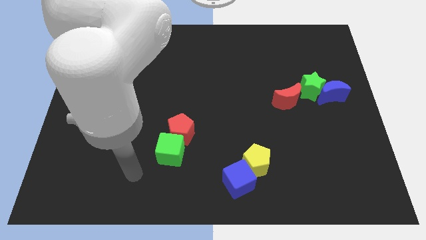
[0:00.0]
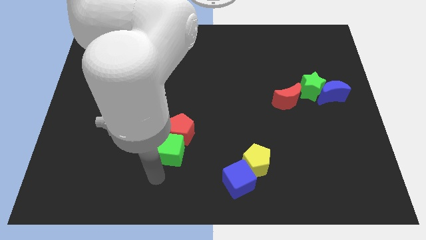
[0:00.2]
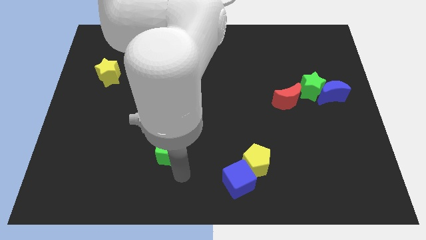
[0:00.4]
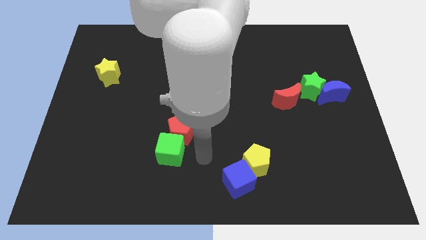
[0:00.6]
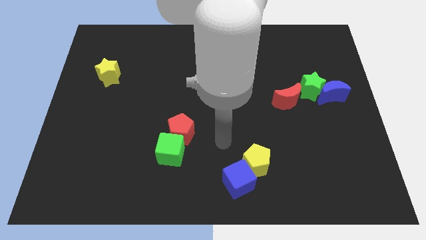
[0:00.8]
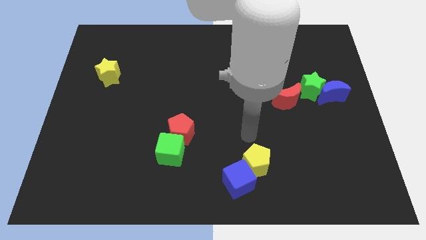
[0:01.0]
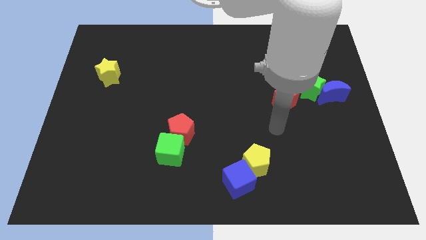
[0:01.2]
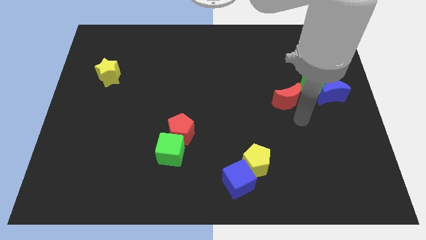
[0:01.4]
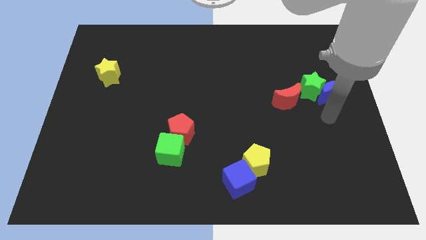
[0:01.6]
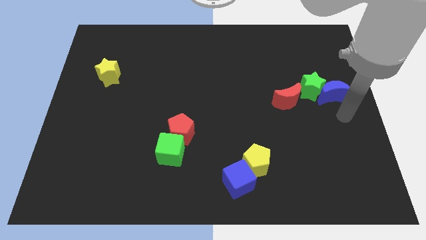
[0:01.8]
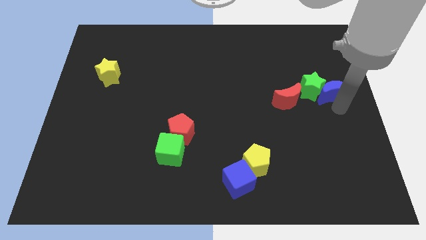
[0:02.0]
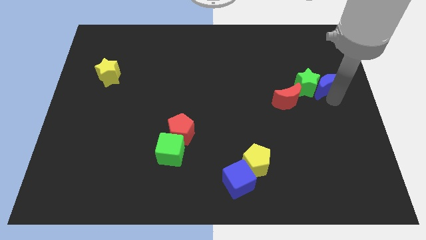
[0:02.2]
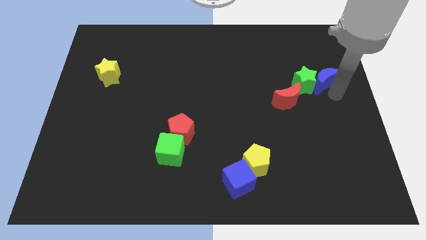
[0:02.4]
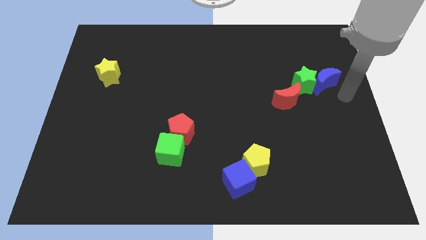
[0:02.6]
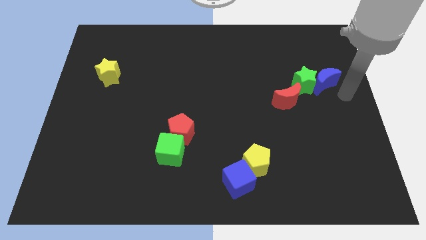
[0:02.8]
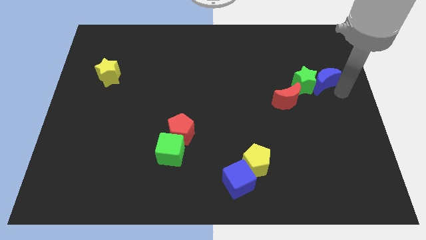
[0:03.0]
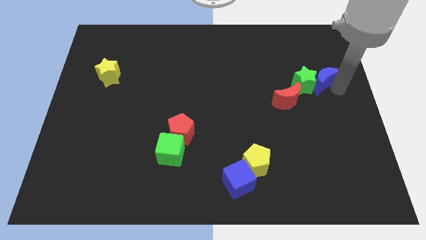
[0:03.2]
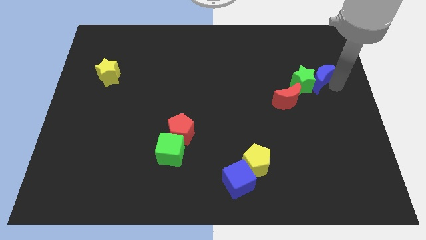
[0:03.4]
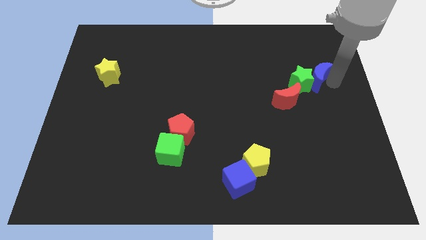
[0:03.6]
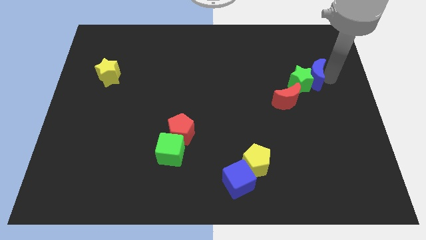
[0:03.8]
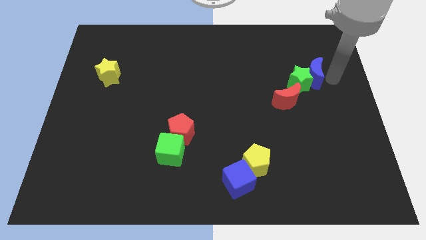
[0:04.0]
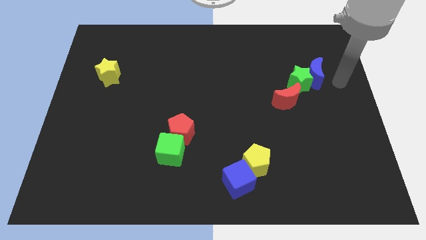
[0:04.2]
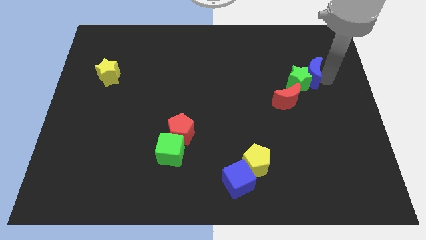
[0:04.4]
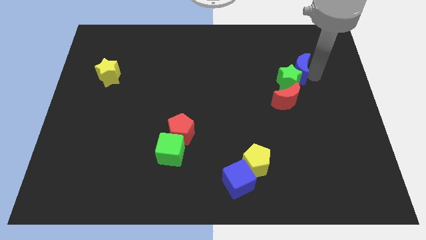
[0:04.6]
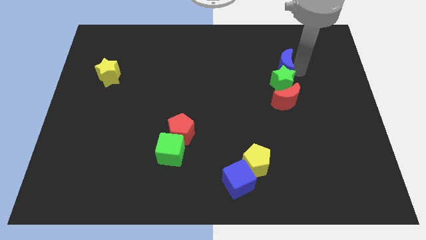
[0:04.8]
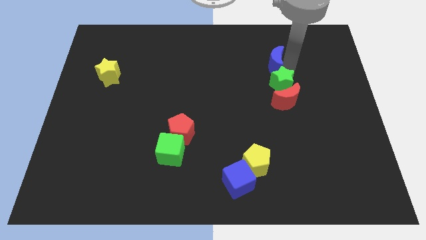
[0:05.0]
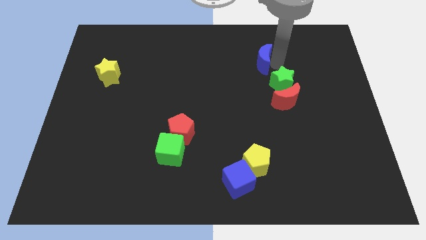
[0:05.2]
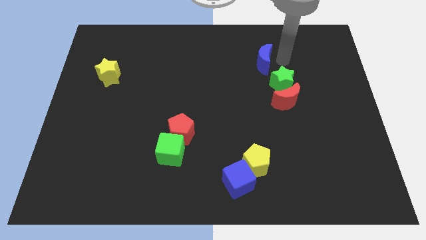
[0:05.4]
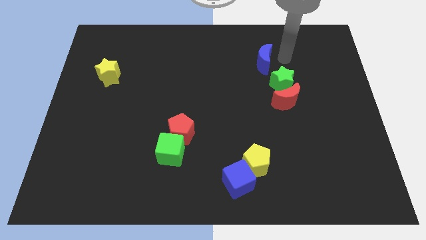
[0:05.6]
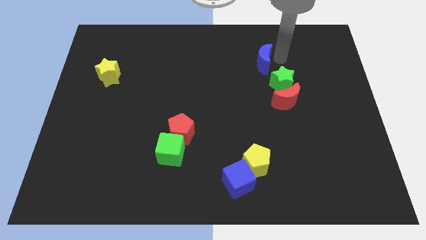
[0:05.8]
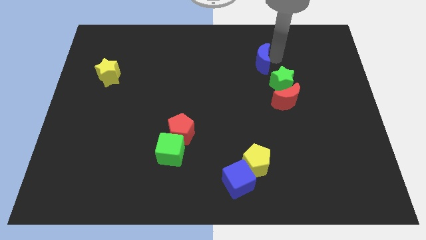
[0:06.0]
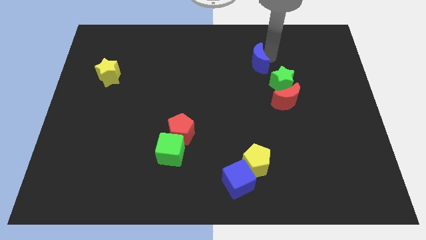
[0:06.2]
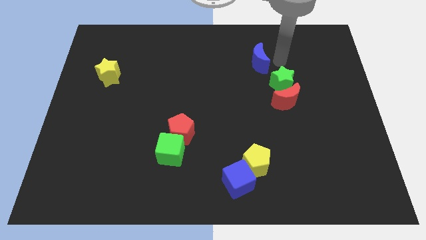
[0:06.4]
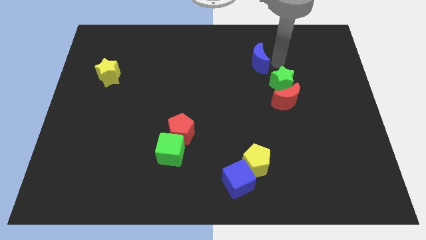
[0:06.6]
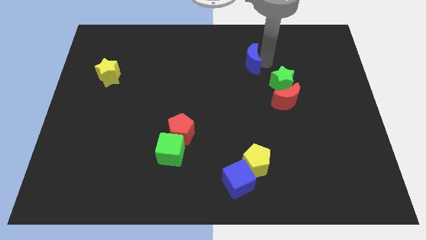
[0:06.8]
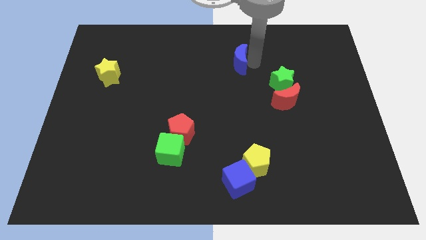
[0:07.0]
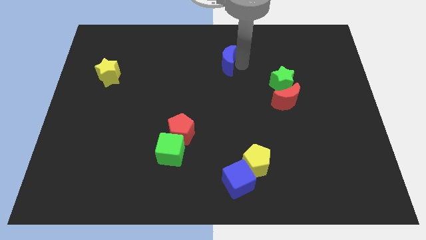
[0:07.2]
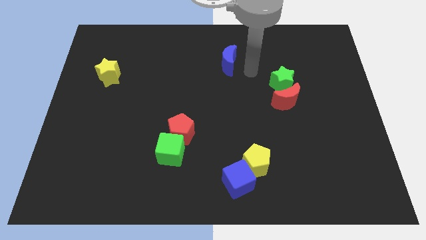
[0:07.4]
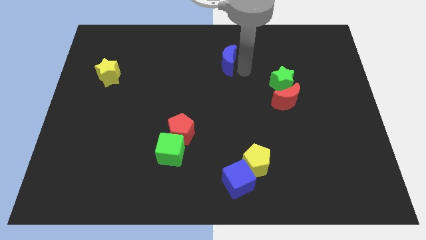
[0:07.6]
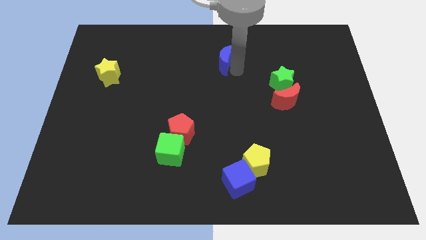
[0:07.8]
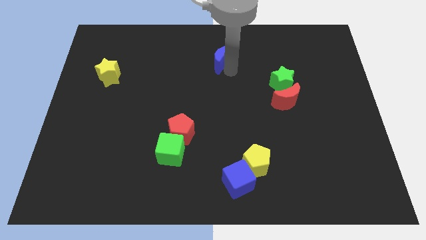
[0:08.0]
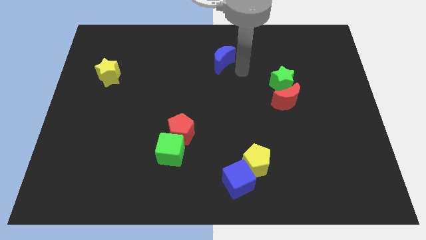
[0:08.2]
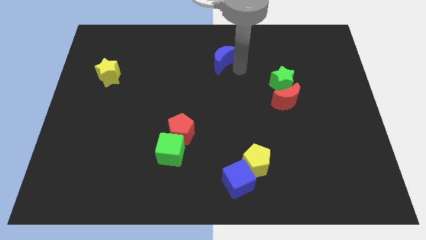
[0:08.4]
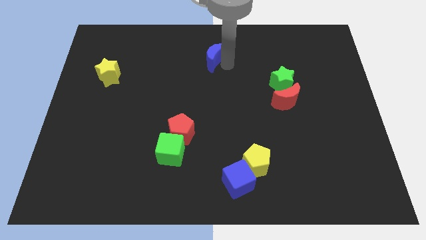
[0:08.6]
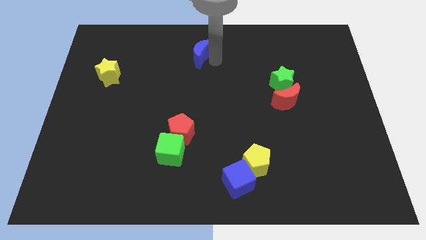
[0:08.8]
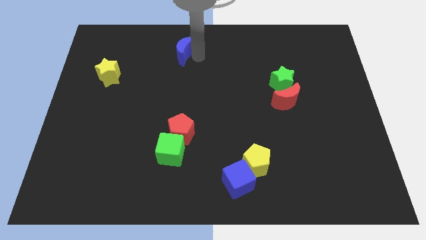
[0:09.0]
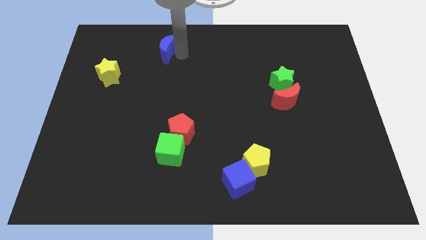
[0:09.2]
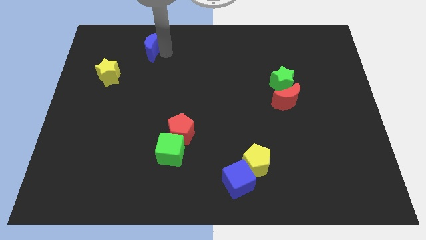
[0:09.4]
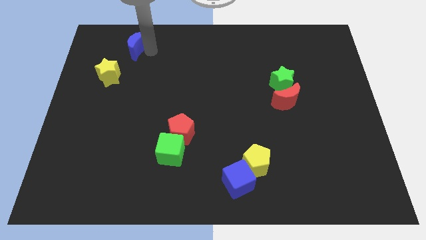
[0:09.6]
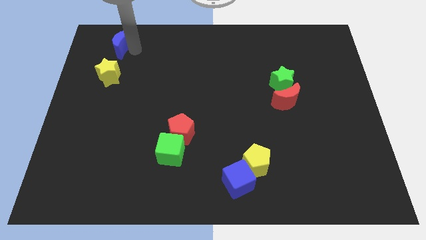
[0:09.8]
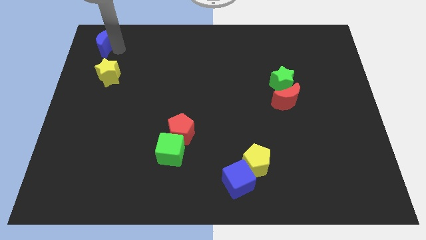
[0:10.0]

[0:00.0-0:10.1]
slide the blue moon to the top left corner

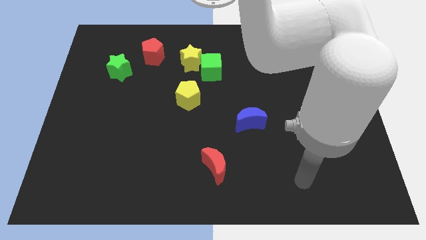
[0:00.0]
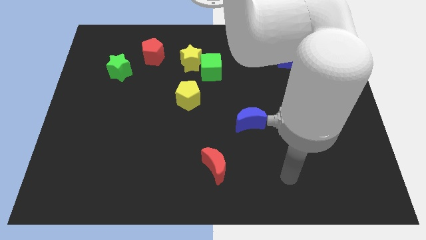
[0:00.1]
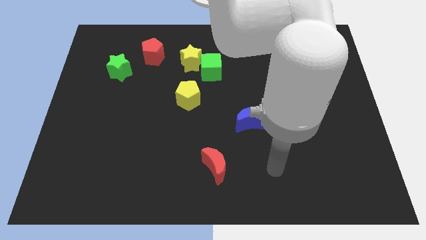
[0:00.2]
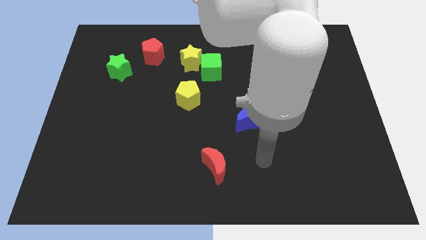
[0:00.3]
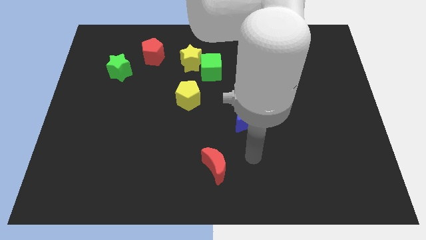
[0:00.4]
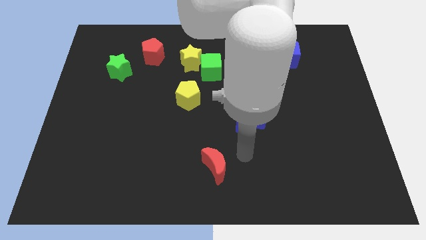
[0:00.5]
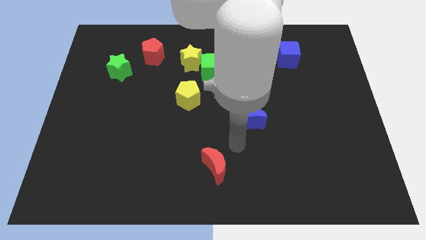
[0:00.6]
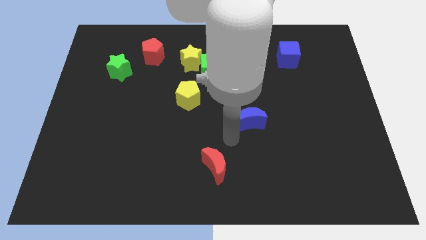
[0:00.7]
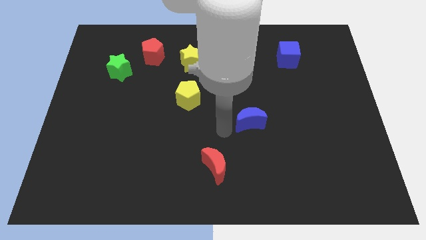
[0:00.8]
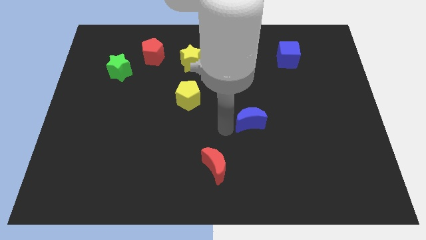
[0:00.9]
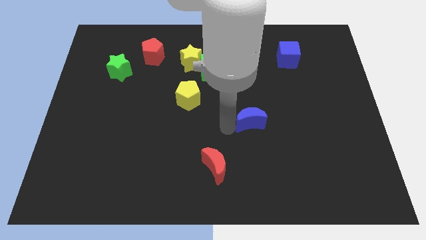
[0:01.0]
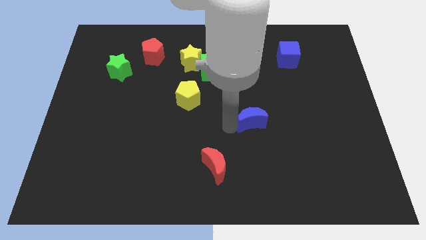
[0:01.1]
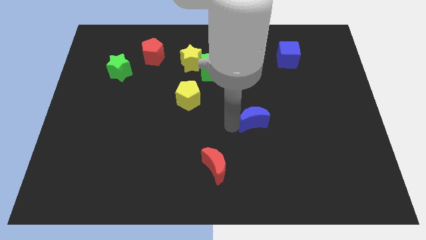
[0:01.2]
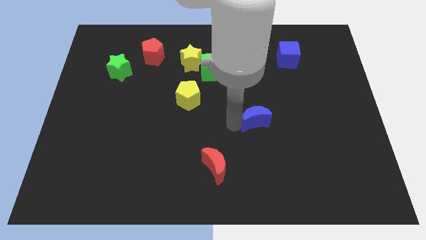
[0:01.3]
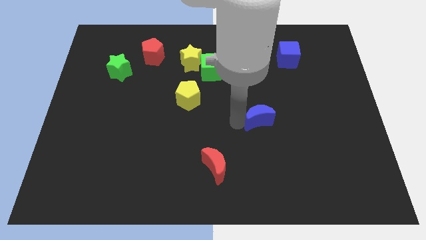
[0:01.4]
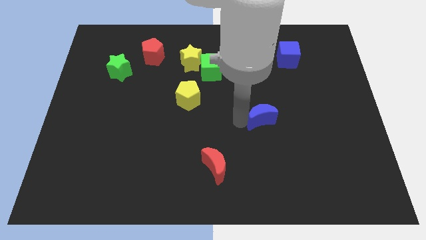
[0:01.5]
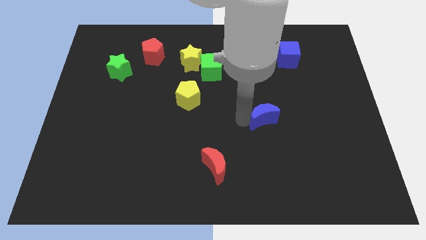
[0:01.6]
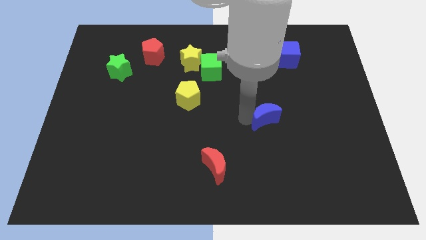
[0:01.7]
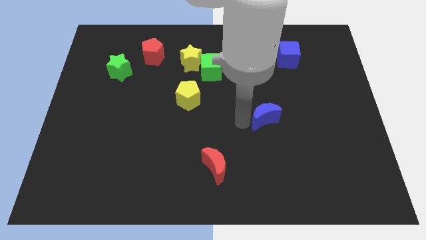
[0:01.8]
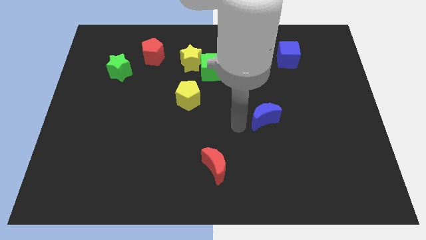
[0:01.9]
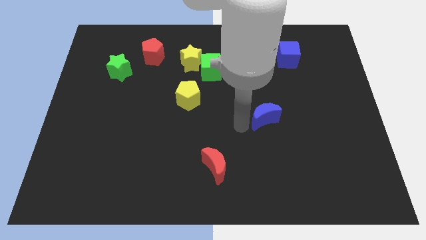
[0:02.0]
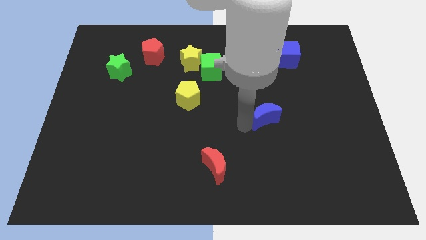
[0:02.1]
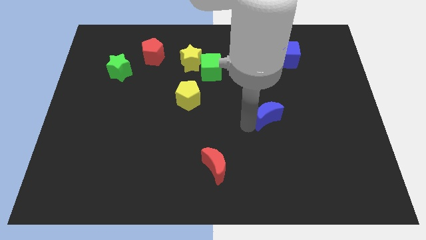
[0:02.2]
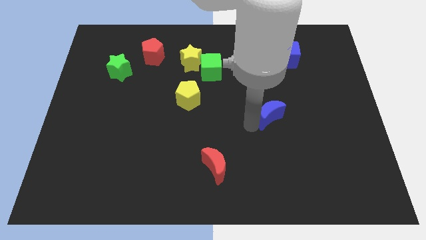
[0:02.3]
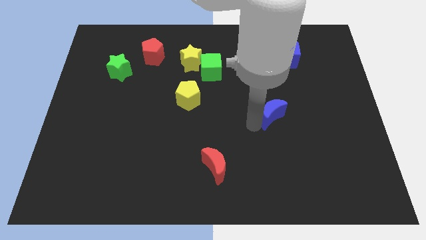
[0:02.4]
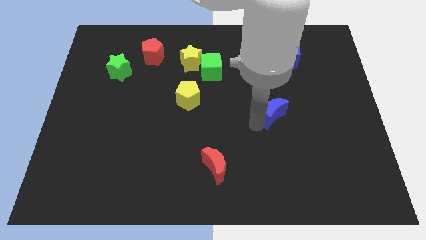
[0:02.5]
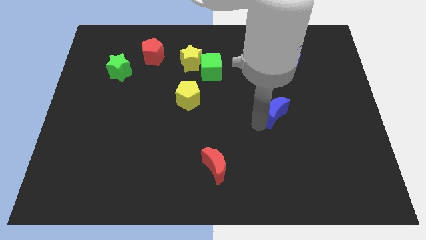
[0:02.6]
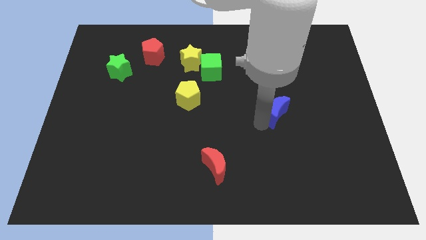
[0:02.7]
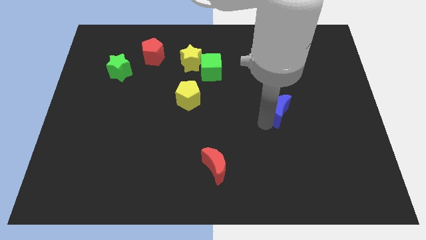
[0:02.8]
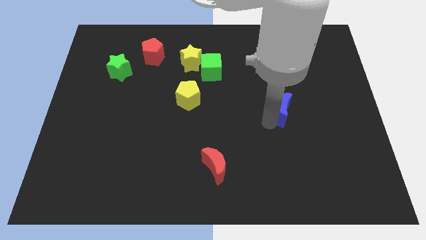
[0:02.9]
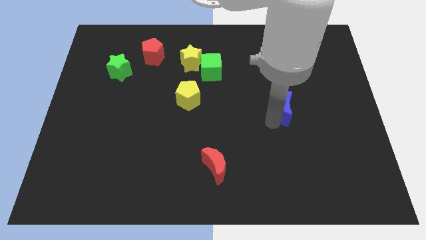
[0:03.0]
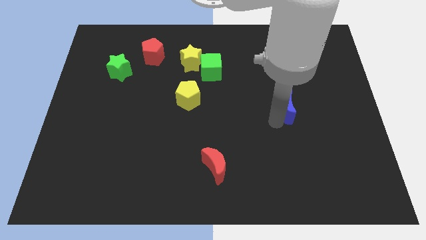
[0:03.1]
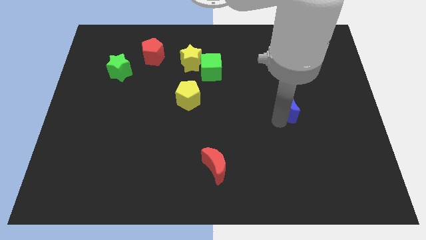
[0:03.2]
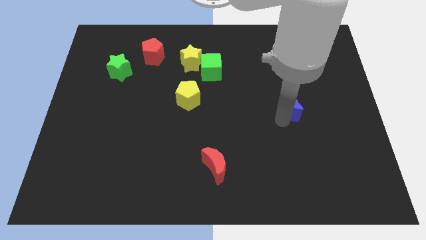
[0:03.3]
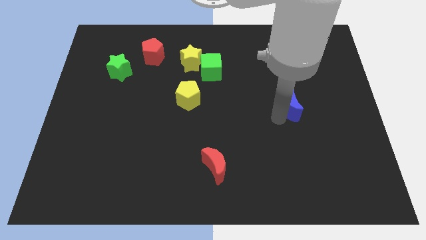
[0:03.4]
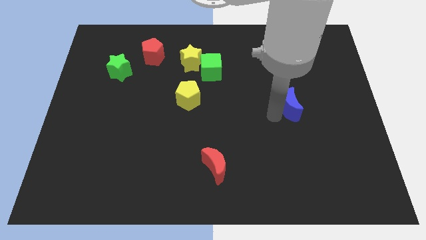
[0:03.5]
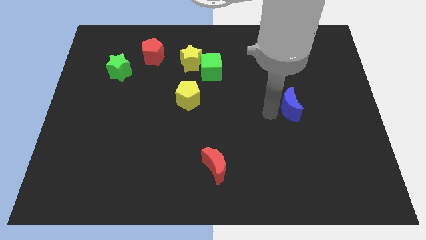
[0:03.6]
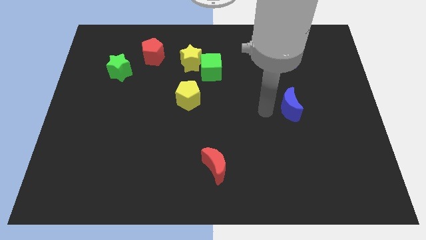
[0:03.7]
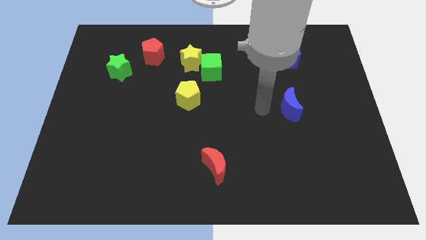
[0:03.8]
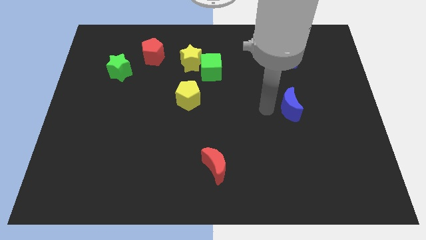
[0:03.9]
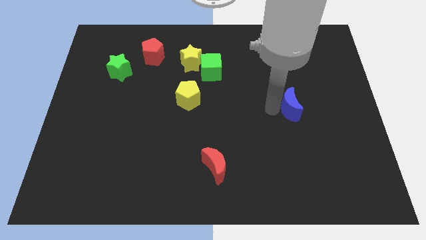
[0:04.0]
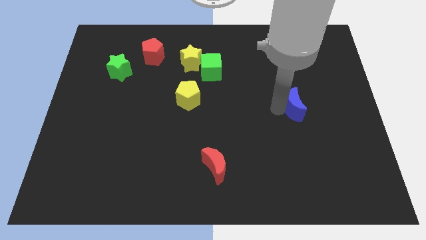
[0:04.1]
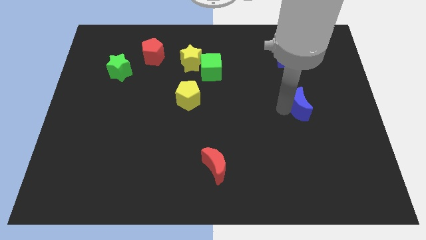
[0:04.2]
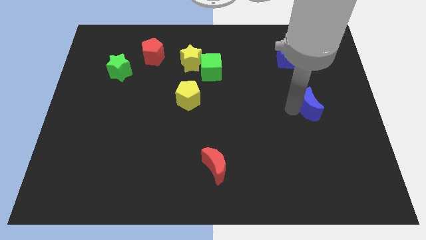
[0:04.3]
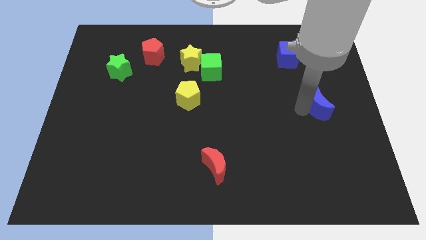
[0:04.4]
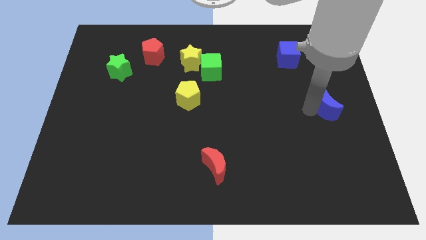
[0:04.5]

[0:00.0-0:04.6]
move the blue moon to the right side
